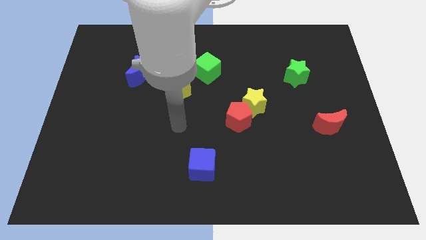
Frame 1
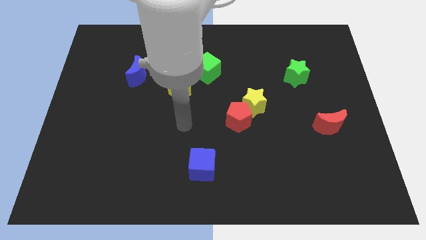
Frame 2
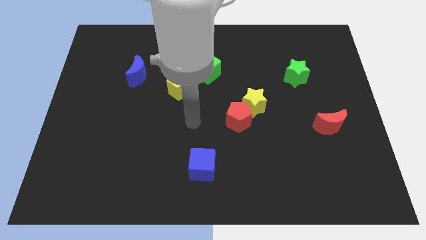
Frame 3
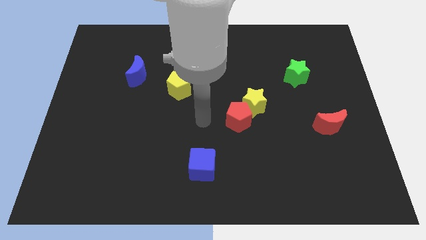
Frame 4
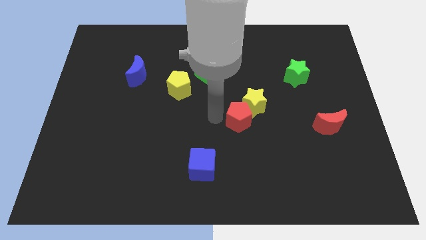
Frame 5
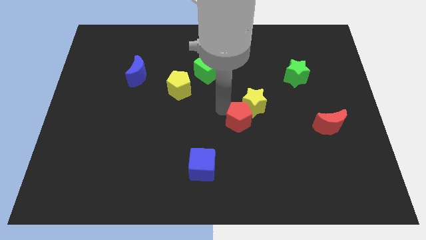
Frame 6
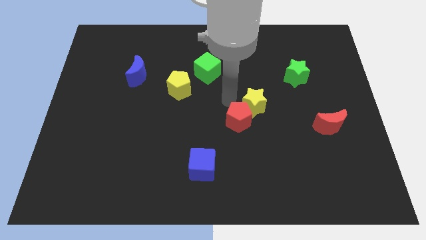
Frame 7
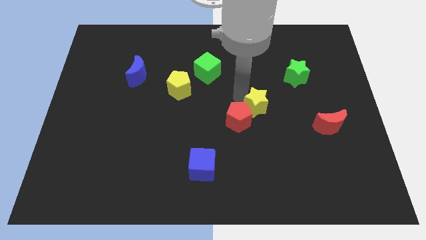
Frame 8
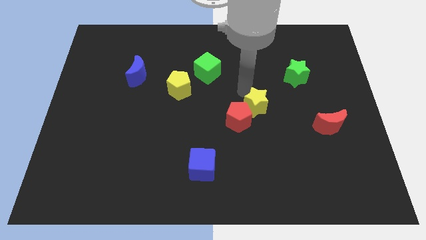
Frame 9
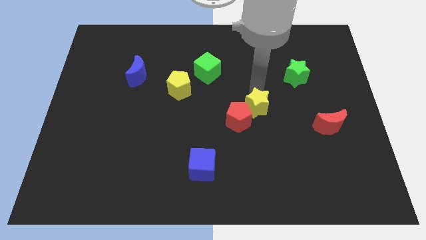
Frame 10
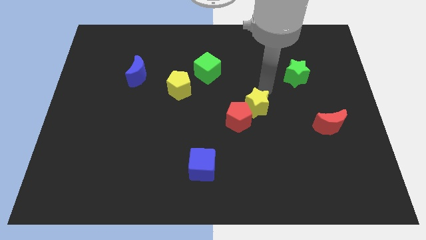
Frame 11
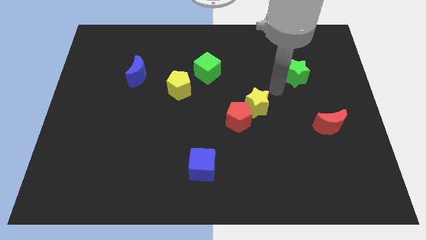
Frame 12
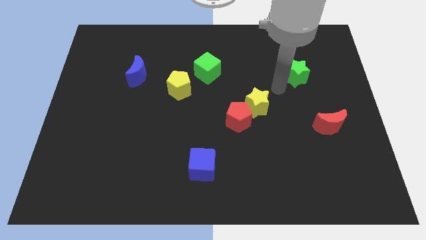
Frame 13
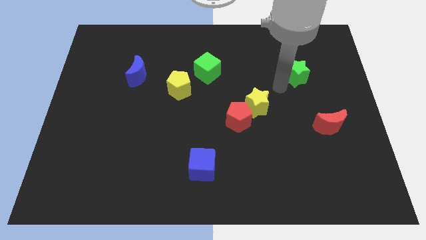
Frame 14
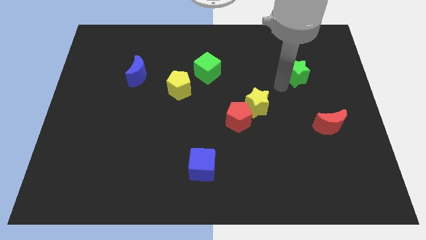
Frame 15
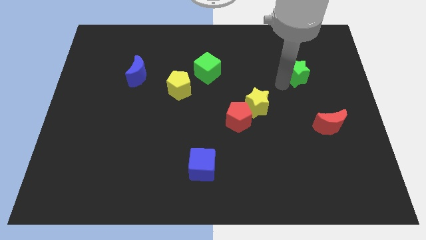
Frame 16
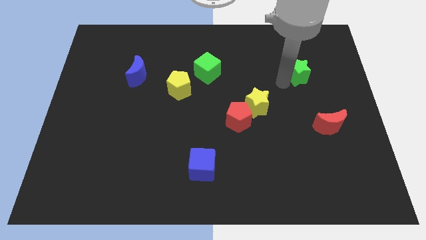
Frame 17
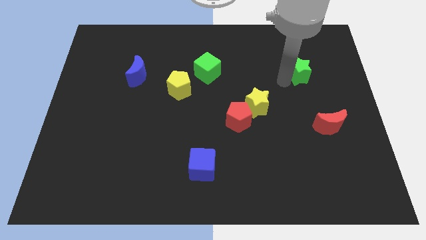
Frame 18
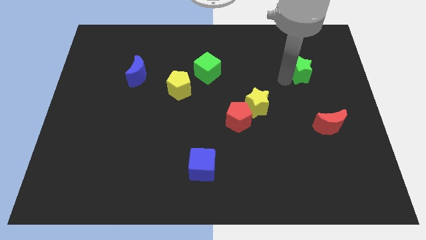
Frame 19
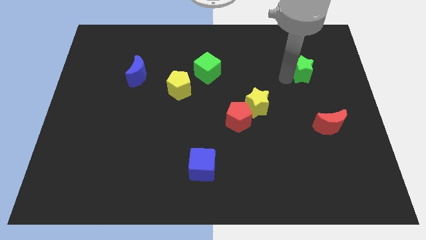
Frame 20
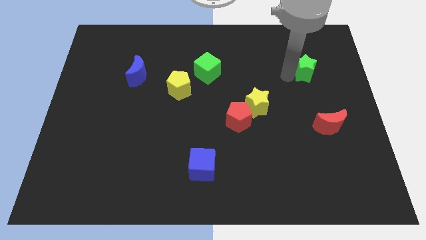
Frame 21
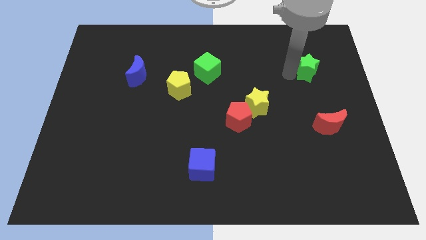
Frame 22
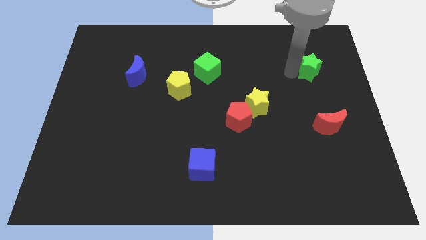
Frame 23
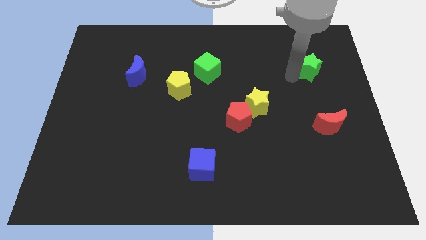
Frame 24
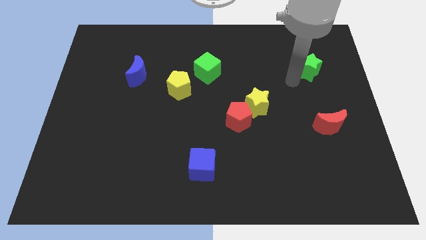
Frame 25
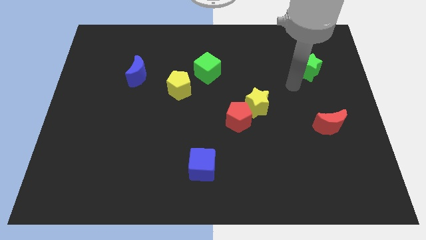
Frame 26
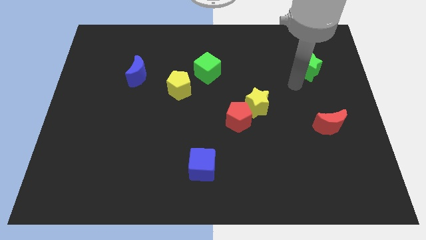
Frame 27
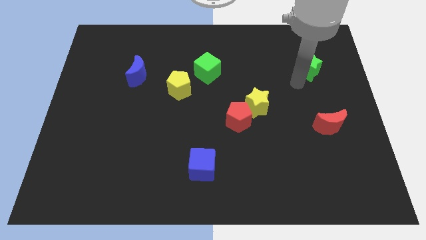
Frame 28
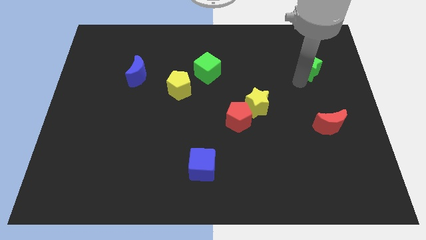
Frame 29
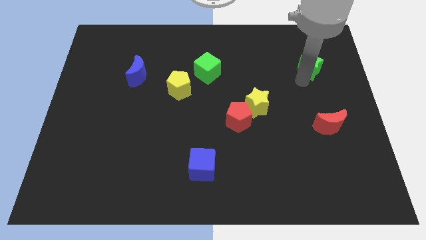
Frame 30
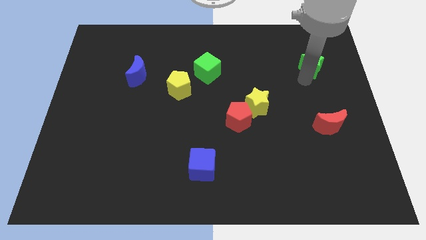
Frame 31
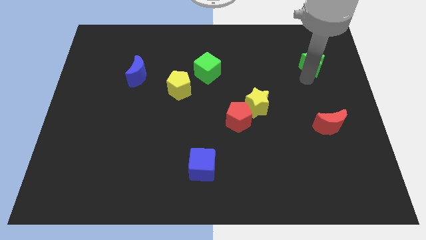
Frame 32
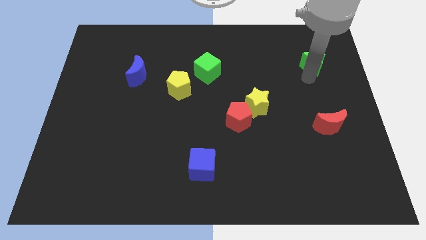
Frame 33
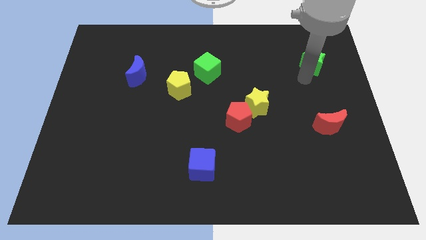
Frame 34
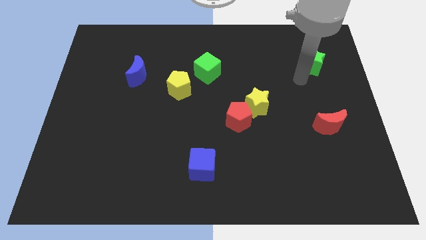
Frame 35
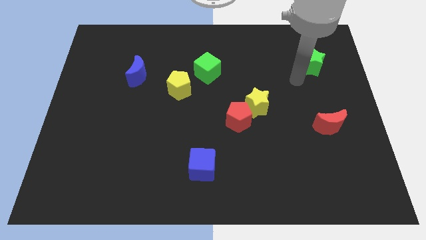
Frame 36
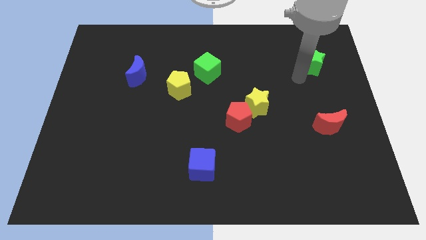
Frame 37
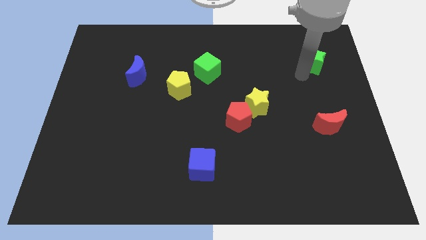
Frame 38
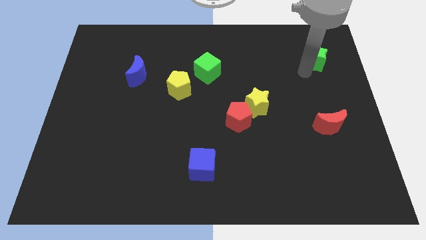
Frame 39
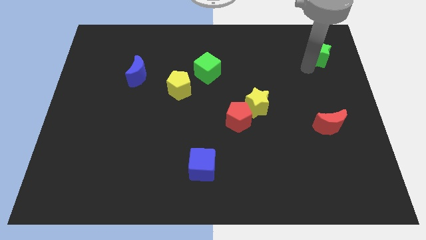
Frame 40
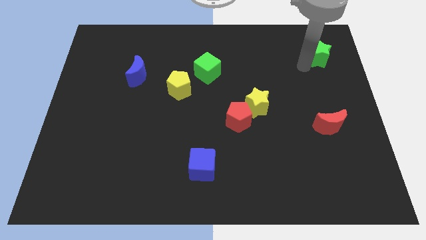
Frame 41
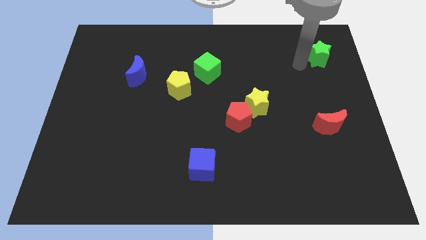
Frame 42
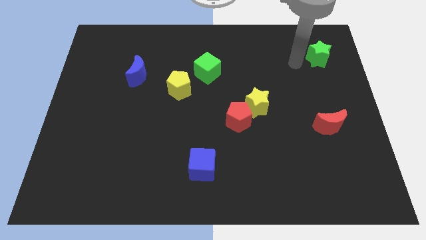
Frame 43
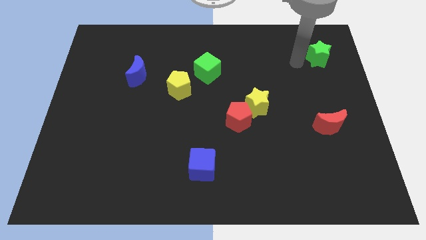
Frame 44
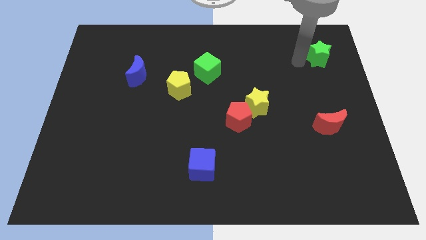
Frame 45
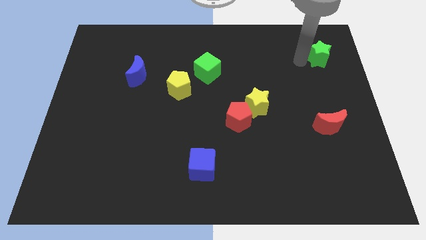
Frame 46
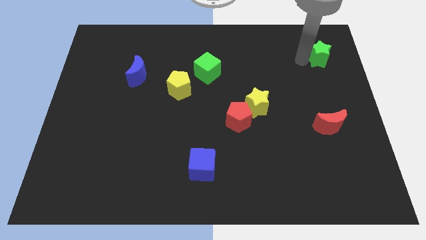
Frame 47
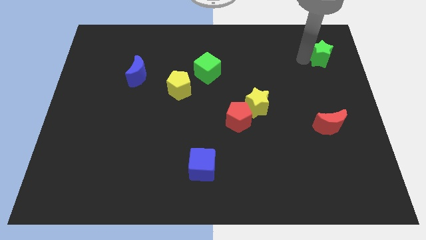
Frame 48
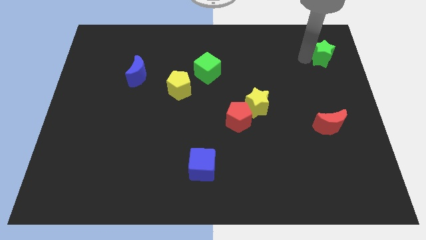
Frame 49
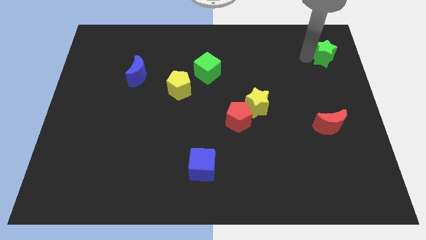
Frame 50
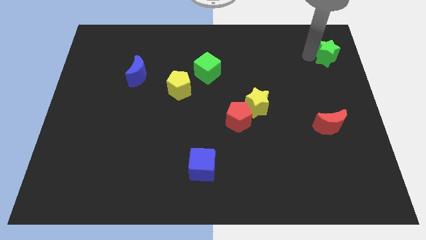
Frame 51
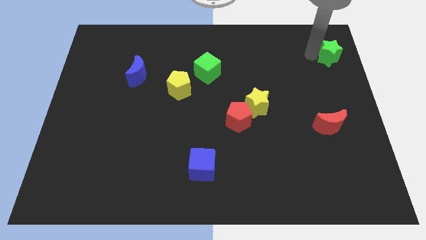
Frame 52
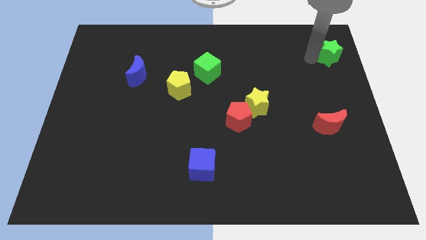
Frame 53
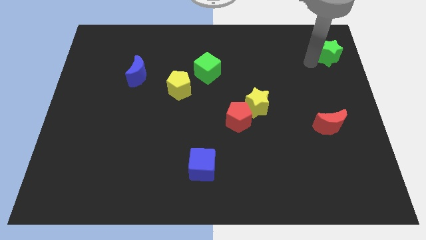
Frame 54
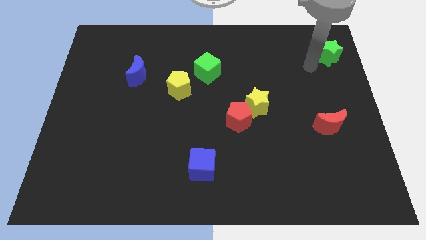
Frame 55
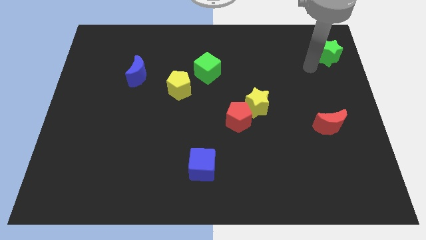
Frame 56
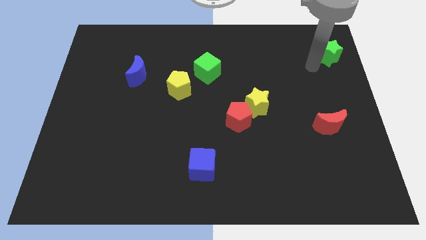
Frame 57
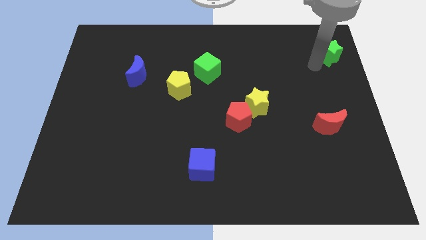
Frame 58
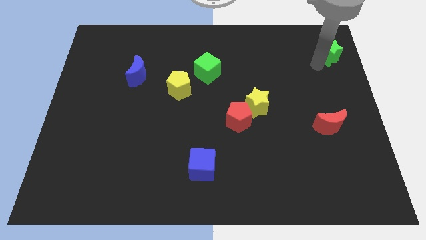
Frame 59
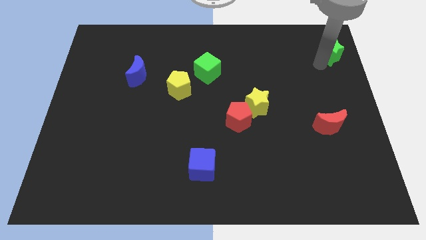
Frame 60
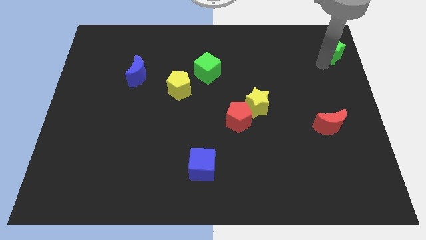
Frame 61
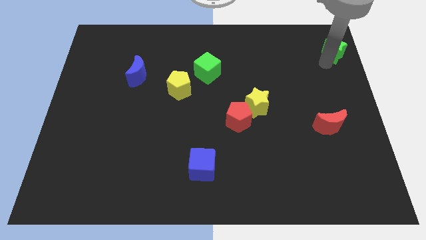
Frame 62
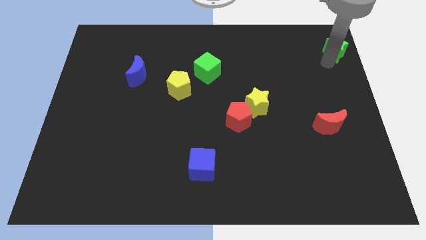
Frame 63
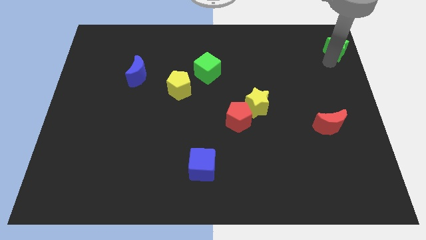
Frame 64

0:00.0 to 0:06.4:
slide the green star to the top right corner

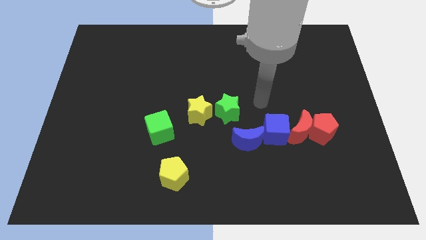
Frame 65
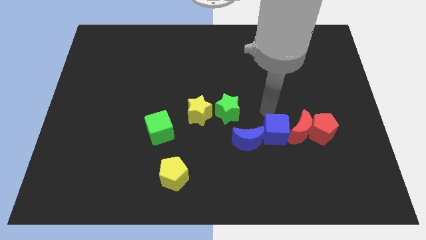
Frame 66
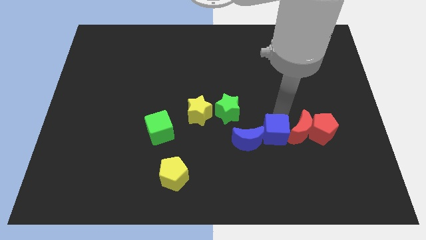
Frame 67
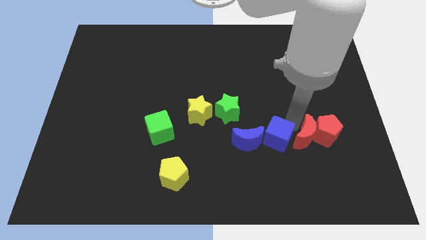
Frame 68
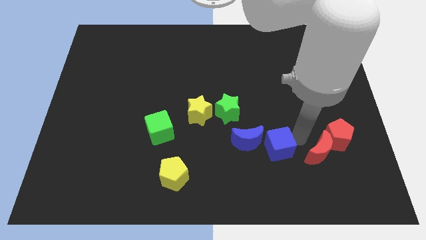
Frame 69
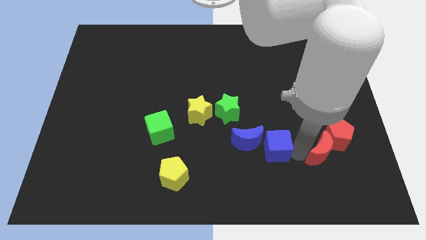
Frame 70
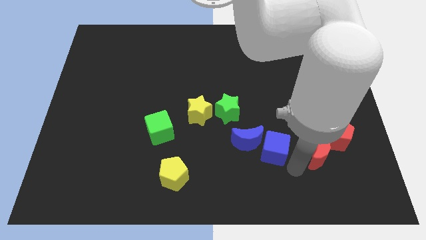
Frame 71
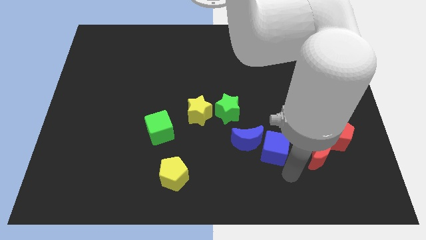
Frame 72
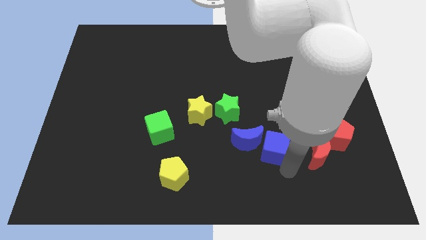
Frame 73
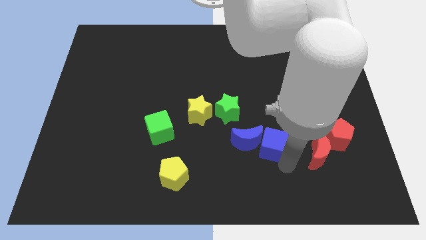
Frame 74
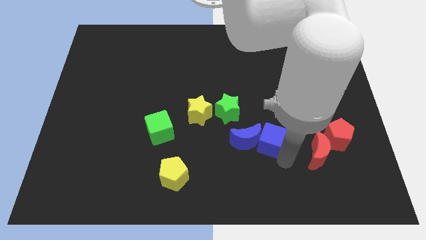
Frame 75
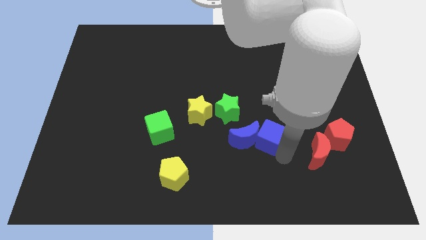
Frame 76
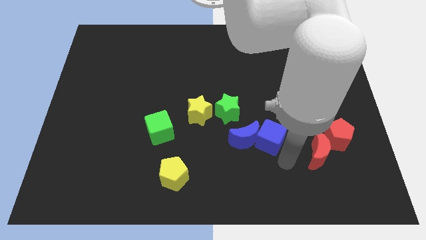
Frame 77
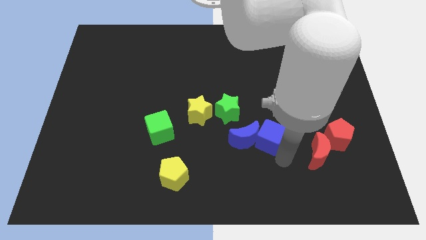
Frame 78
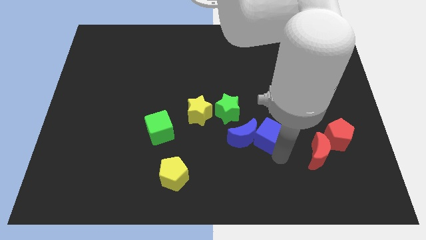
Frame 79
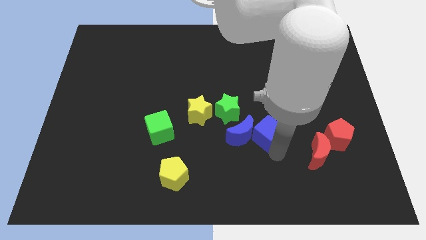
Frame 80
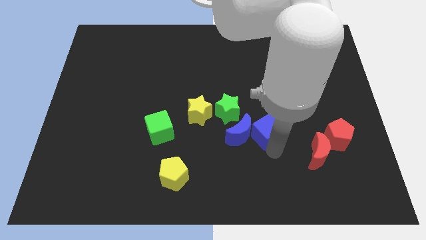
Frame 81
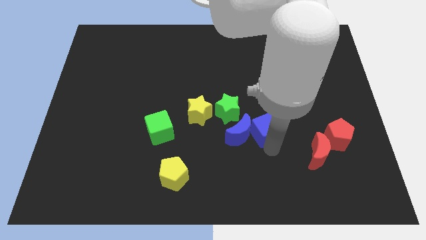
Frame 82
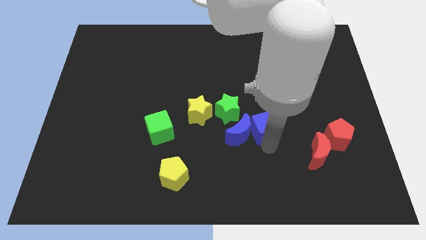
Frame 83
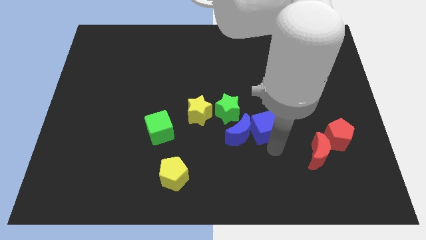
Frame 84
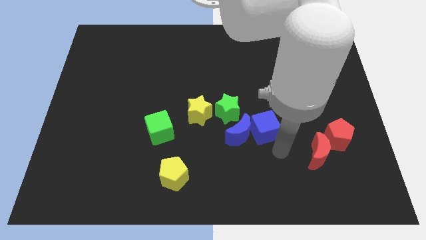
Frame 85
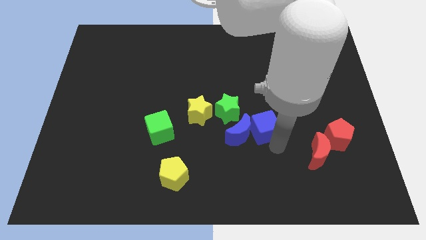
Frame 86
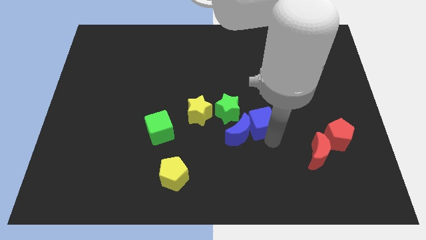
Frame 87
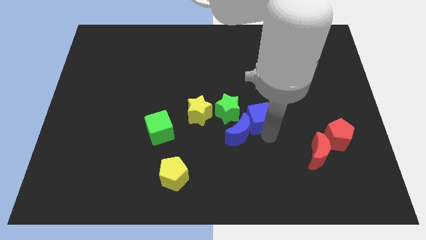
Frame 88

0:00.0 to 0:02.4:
move the blue cube to the center
